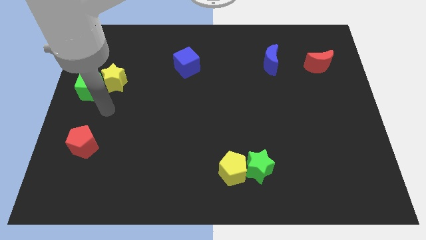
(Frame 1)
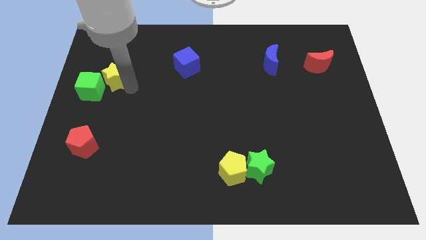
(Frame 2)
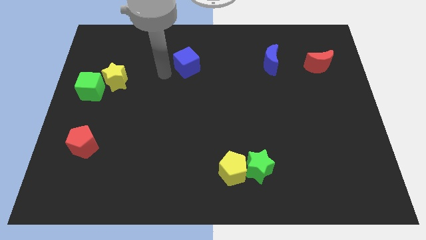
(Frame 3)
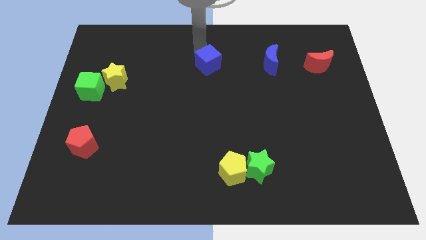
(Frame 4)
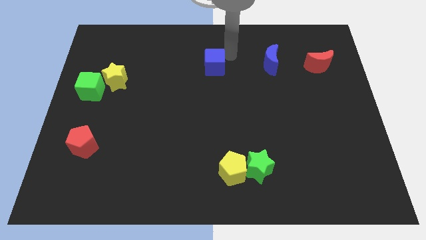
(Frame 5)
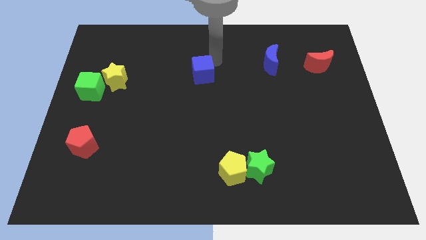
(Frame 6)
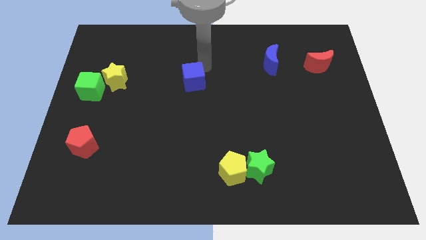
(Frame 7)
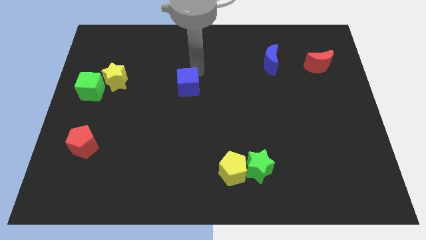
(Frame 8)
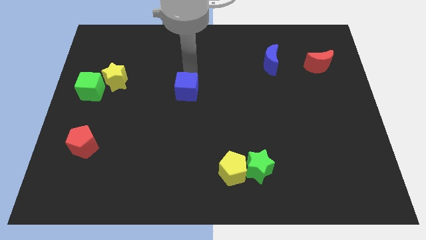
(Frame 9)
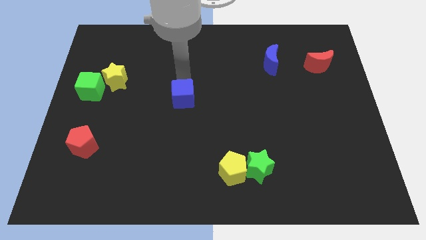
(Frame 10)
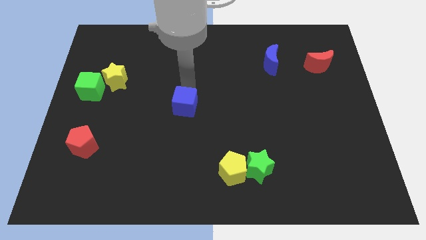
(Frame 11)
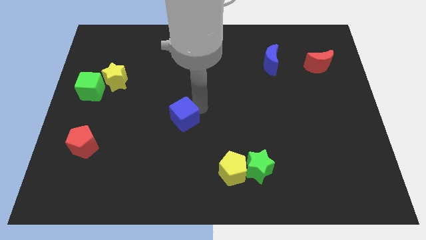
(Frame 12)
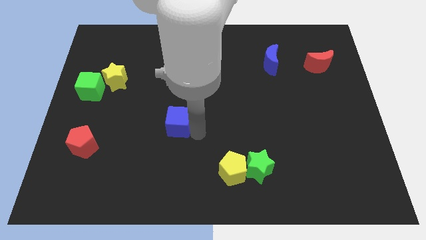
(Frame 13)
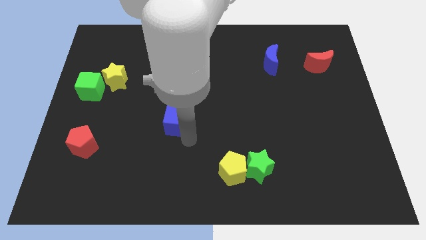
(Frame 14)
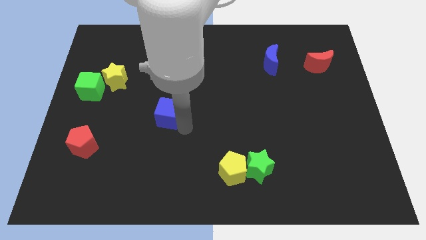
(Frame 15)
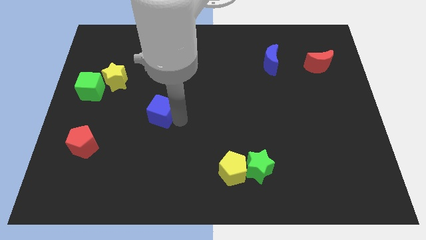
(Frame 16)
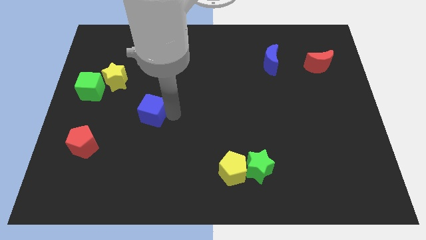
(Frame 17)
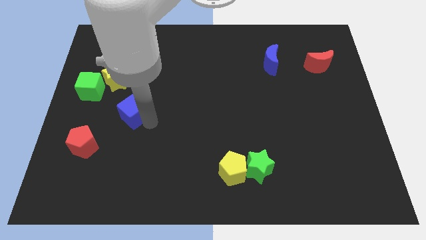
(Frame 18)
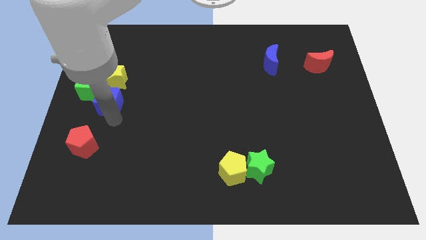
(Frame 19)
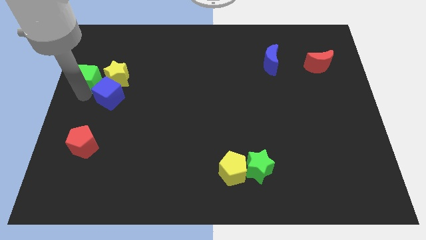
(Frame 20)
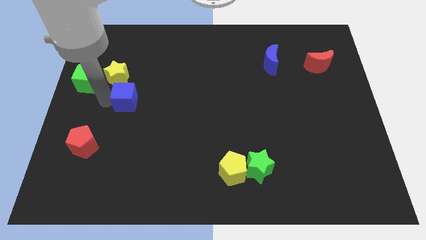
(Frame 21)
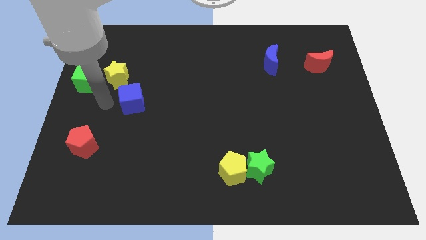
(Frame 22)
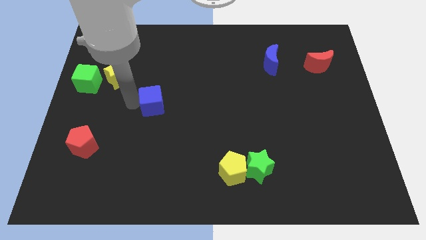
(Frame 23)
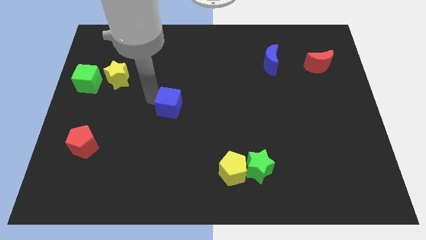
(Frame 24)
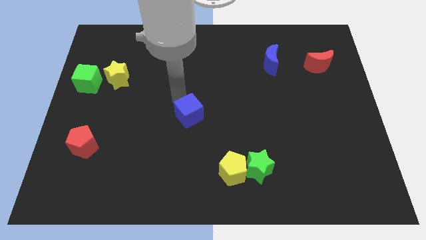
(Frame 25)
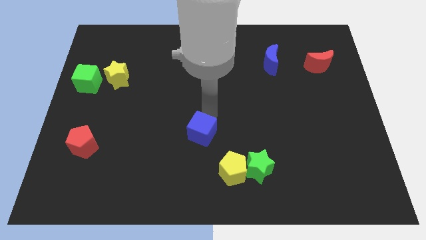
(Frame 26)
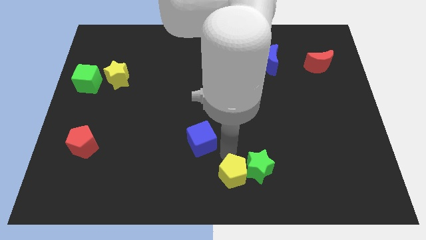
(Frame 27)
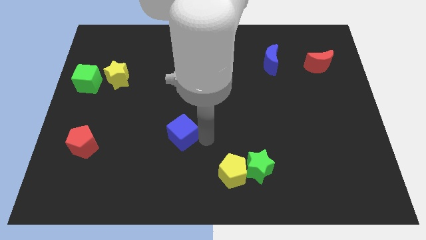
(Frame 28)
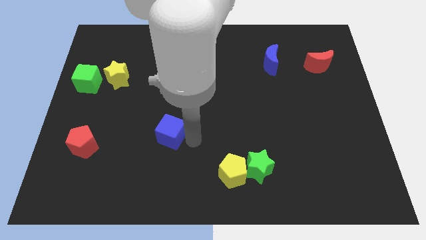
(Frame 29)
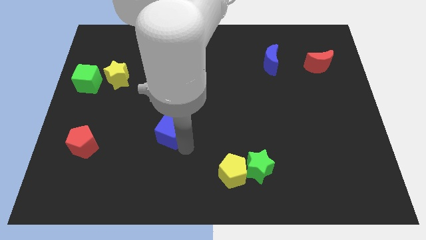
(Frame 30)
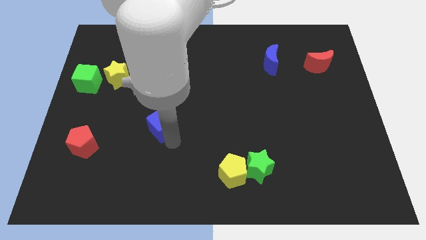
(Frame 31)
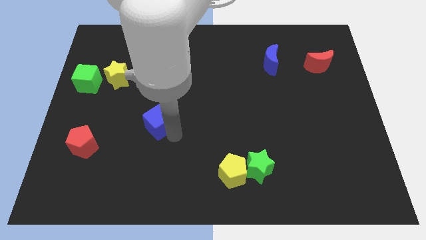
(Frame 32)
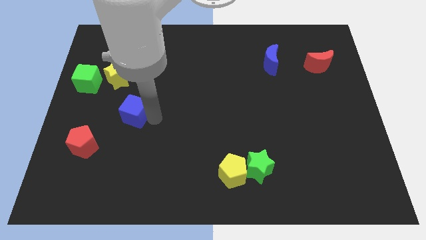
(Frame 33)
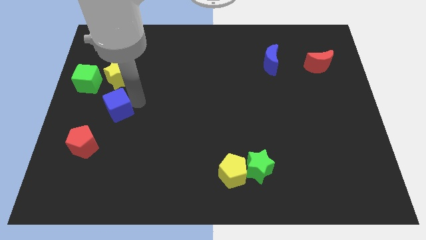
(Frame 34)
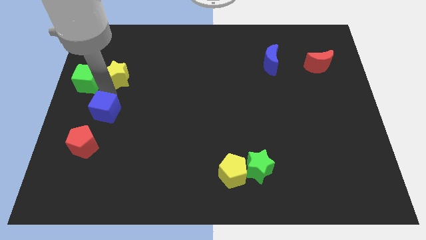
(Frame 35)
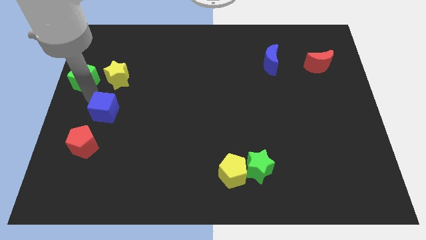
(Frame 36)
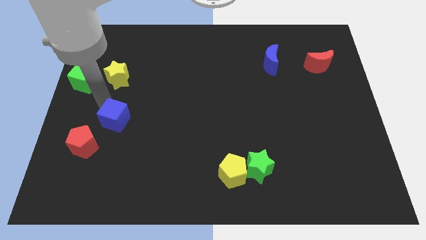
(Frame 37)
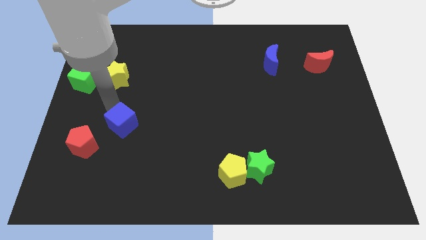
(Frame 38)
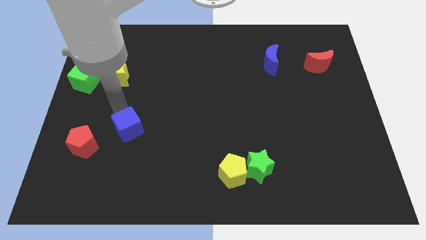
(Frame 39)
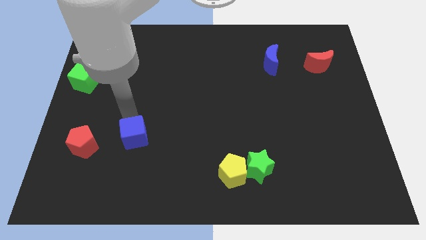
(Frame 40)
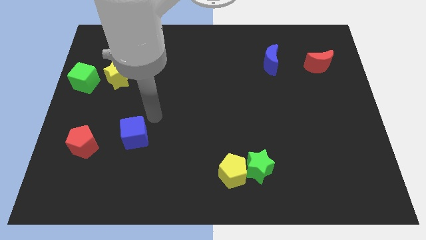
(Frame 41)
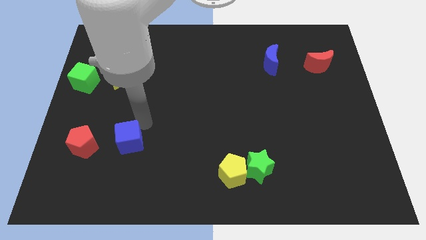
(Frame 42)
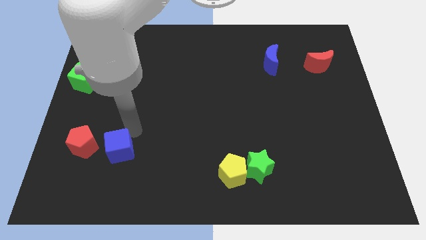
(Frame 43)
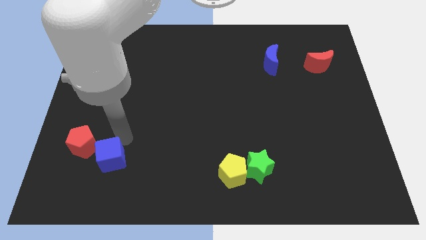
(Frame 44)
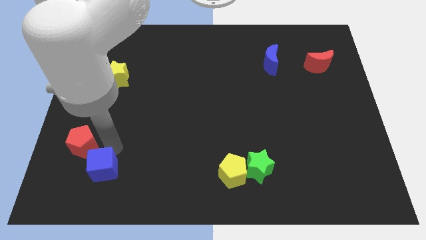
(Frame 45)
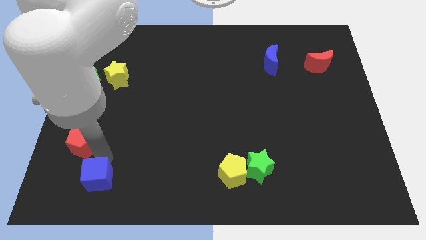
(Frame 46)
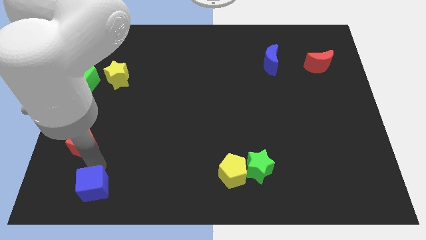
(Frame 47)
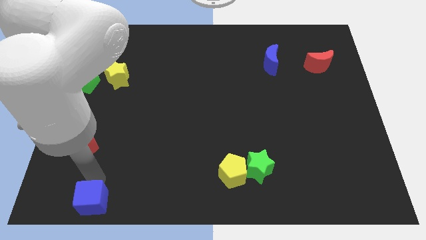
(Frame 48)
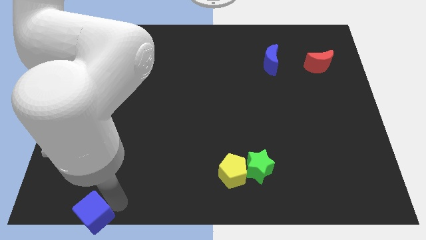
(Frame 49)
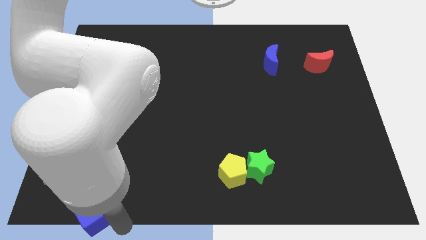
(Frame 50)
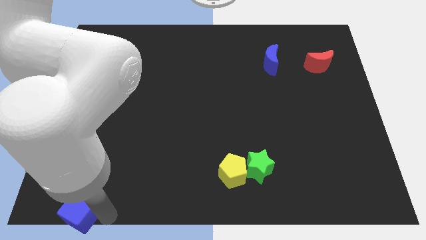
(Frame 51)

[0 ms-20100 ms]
slide the blue cube to the lower left corner

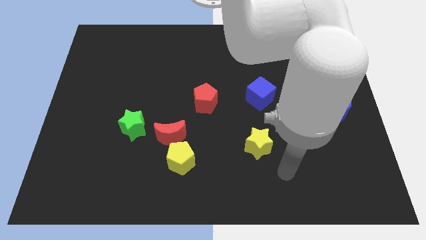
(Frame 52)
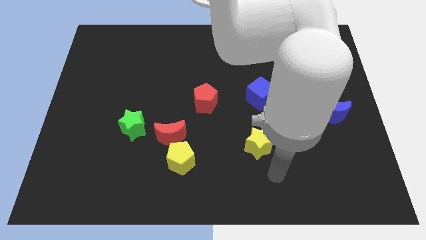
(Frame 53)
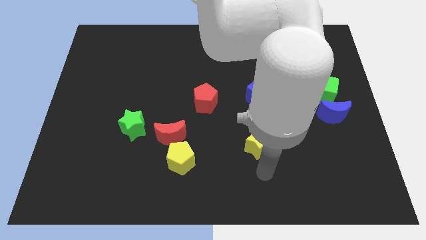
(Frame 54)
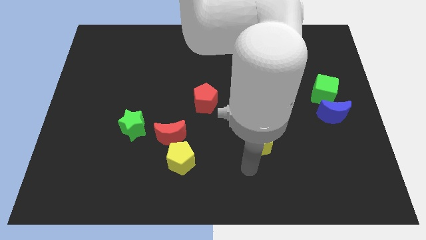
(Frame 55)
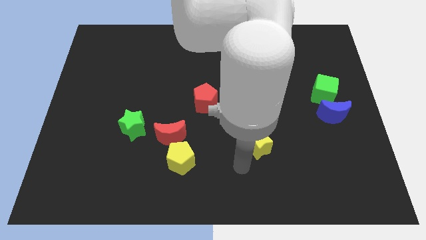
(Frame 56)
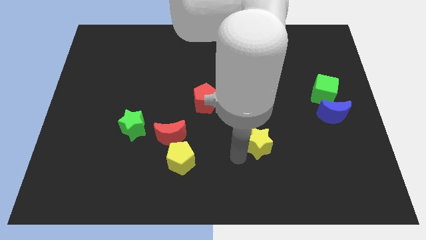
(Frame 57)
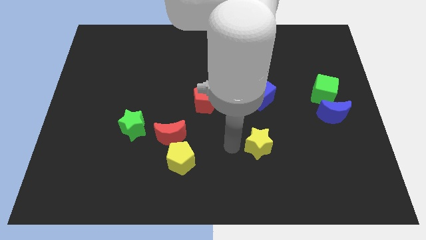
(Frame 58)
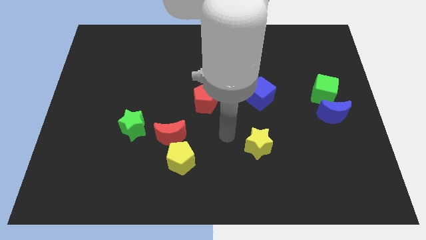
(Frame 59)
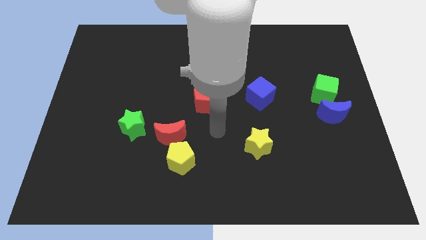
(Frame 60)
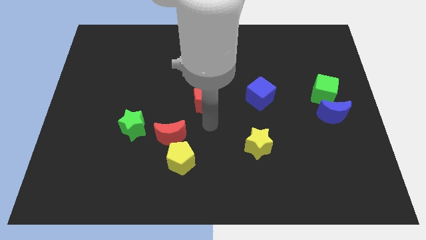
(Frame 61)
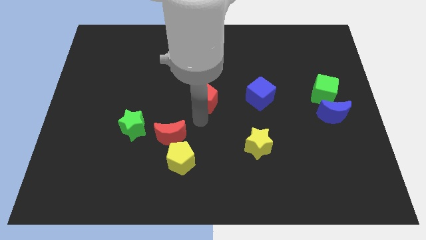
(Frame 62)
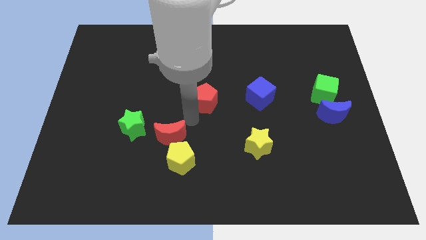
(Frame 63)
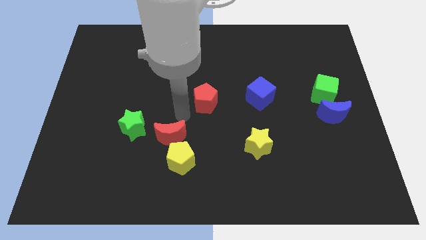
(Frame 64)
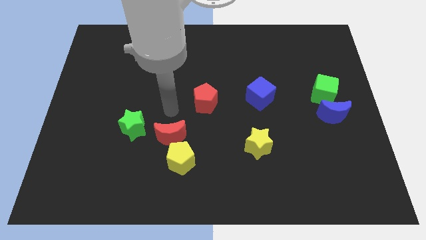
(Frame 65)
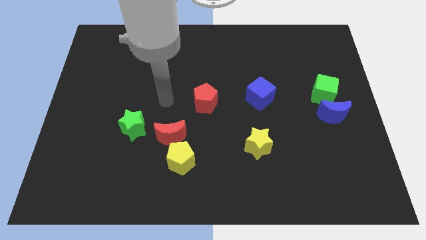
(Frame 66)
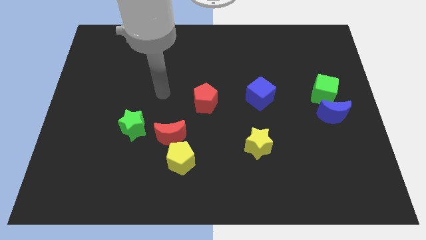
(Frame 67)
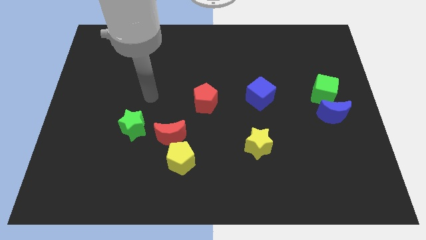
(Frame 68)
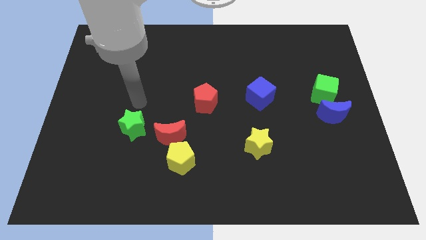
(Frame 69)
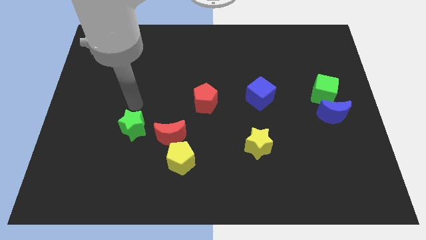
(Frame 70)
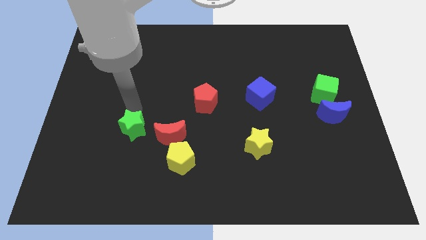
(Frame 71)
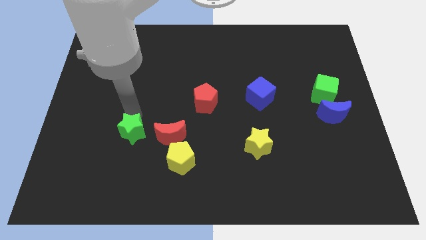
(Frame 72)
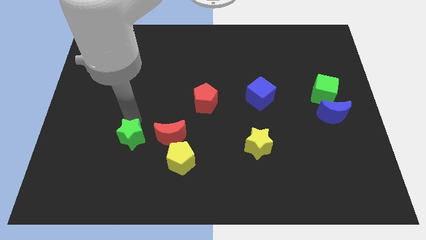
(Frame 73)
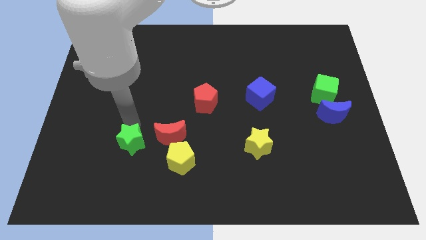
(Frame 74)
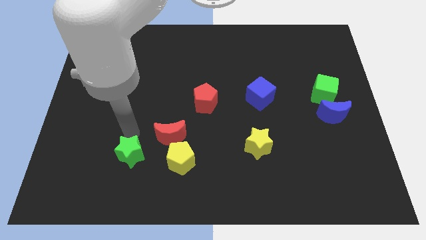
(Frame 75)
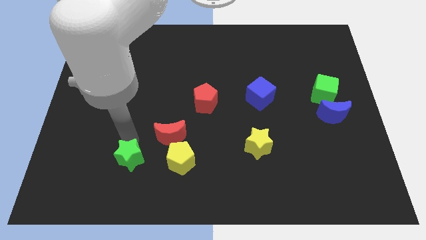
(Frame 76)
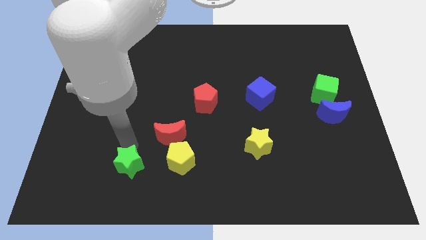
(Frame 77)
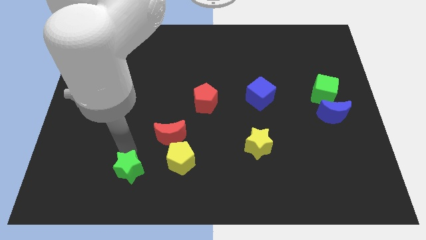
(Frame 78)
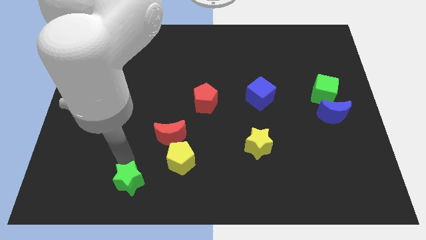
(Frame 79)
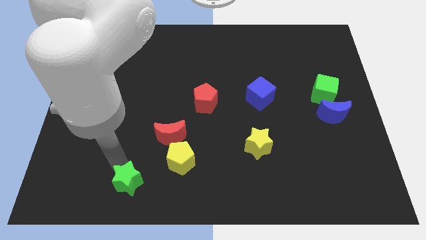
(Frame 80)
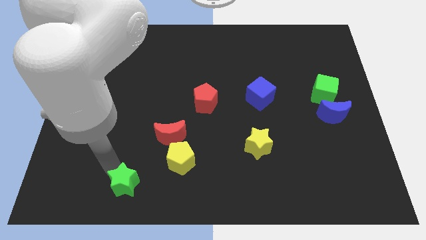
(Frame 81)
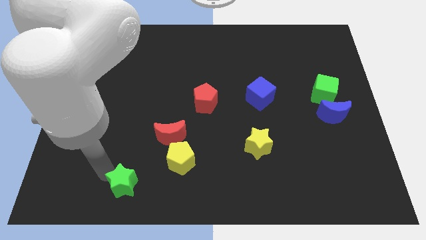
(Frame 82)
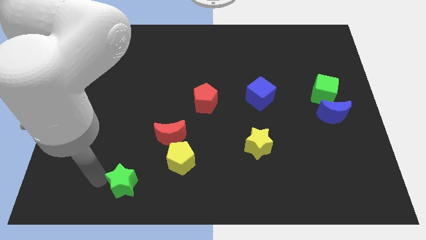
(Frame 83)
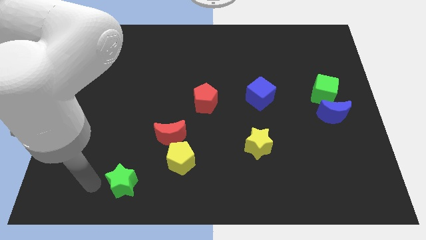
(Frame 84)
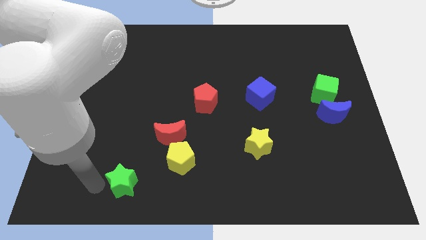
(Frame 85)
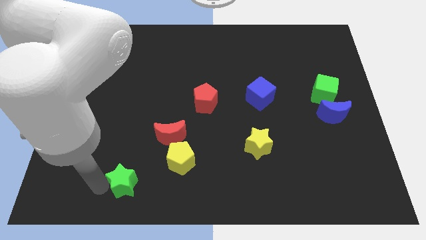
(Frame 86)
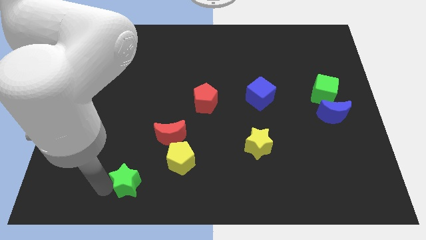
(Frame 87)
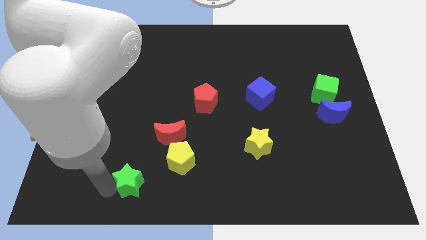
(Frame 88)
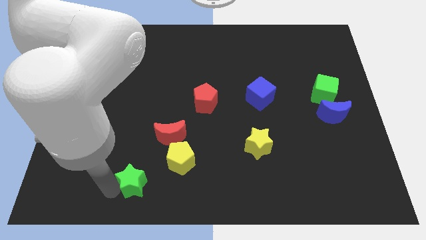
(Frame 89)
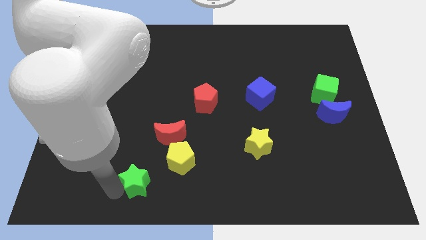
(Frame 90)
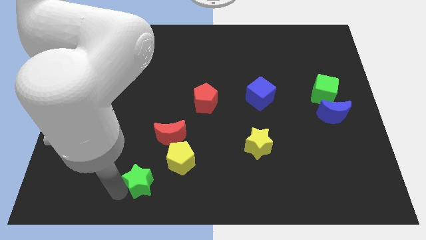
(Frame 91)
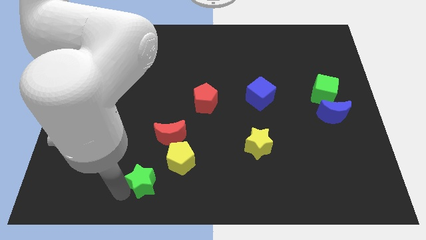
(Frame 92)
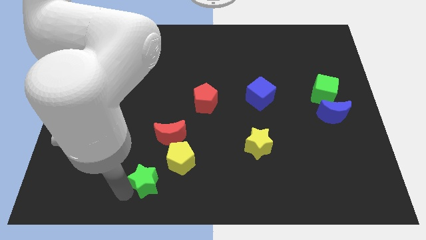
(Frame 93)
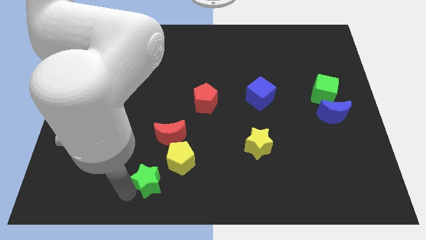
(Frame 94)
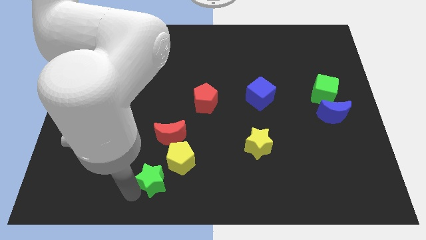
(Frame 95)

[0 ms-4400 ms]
move the green star to the bottom
